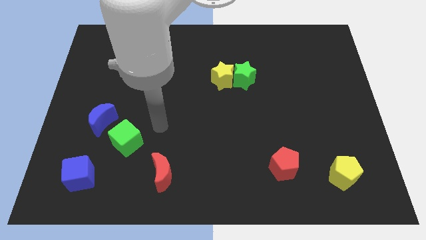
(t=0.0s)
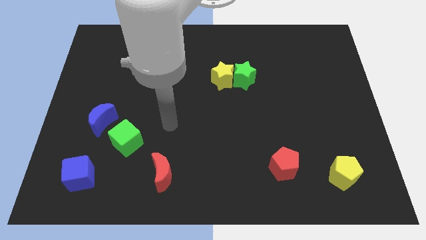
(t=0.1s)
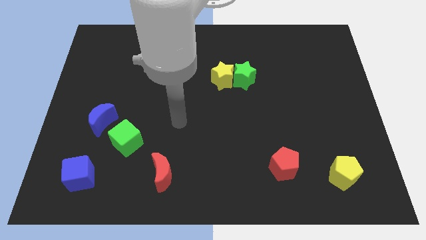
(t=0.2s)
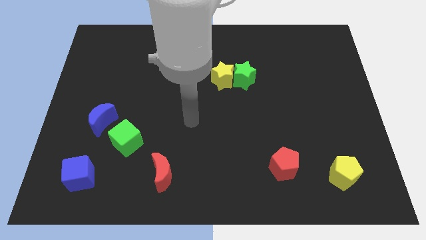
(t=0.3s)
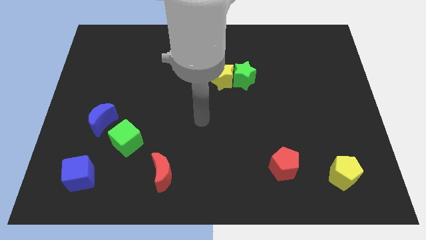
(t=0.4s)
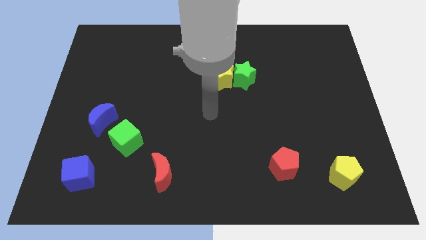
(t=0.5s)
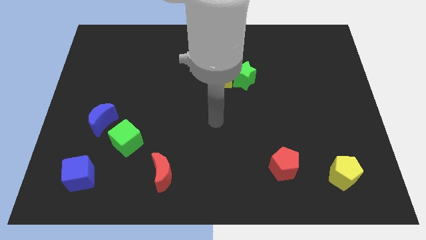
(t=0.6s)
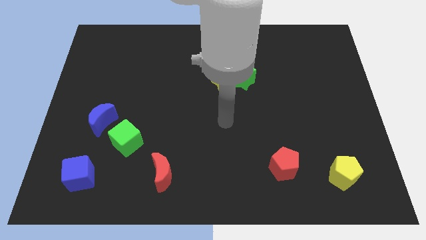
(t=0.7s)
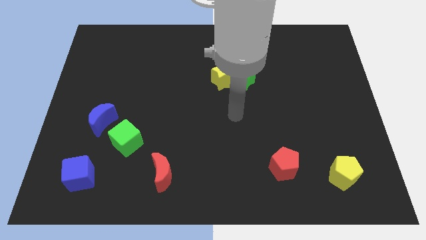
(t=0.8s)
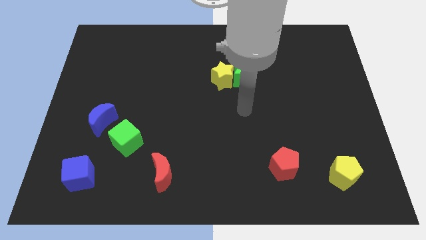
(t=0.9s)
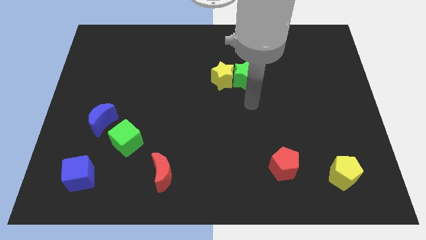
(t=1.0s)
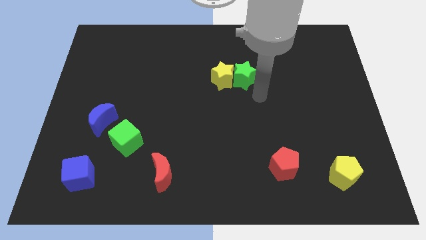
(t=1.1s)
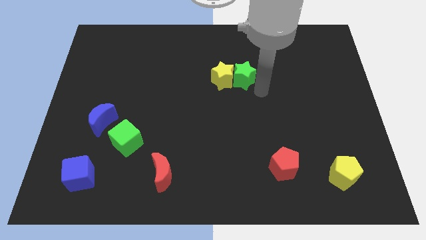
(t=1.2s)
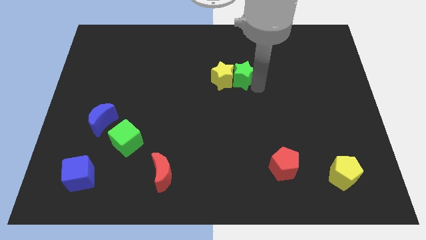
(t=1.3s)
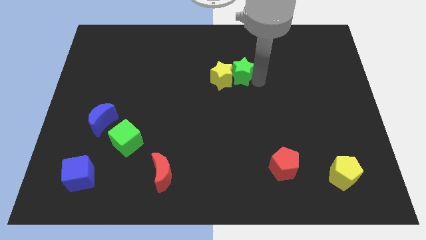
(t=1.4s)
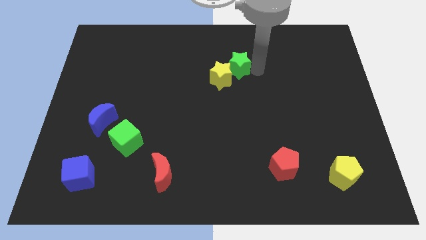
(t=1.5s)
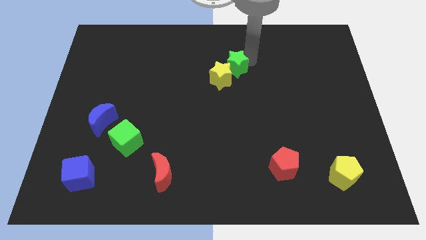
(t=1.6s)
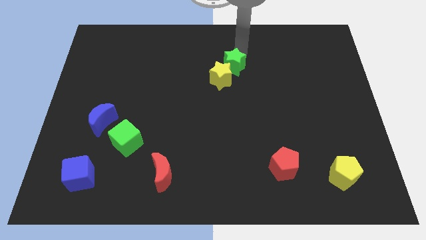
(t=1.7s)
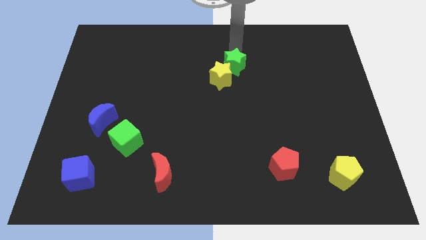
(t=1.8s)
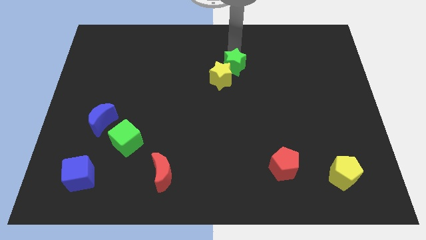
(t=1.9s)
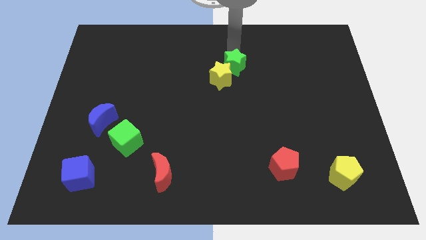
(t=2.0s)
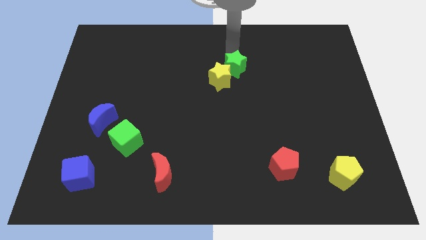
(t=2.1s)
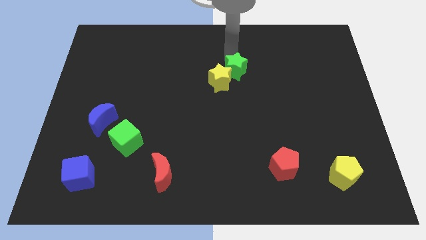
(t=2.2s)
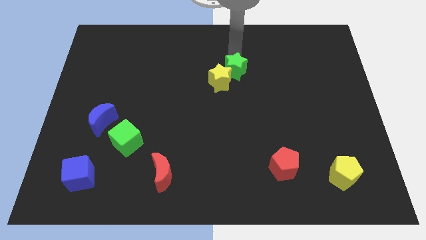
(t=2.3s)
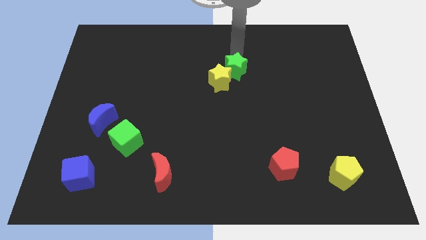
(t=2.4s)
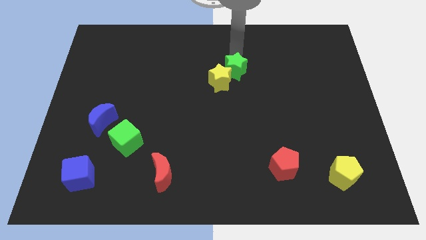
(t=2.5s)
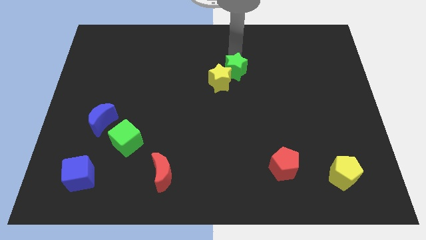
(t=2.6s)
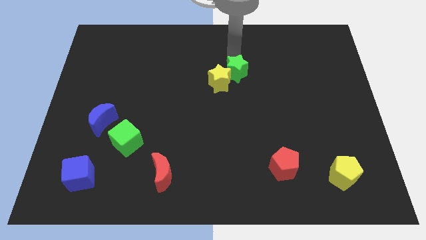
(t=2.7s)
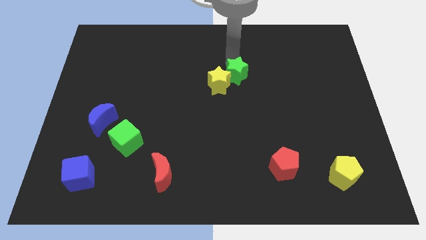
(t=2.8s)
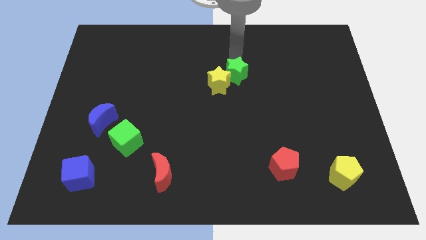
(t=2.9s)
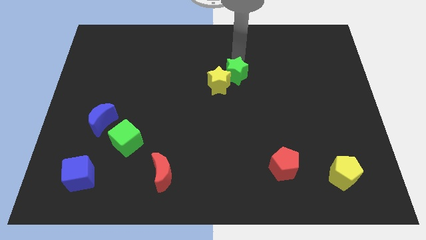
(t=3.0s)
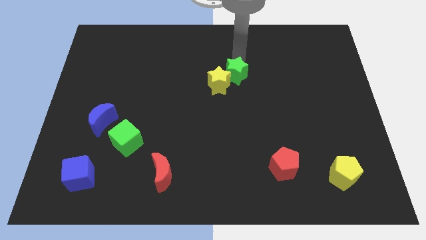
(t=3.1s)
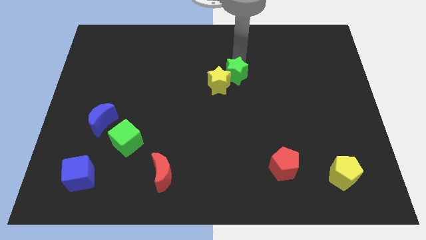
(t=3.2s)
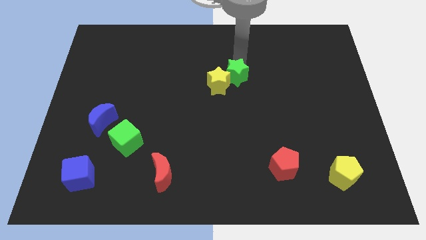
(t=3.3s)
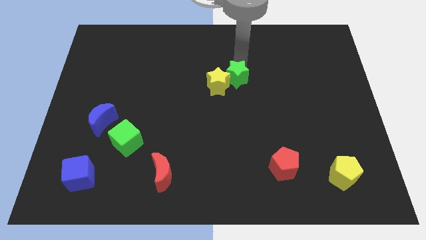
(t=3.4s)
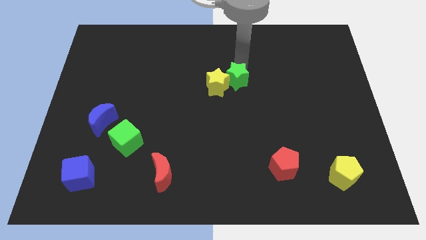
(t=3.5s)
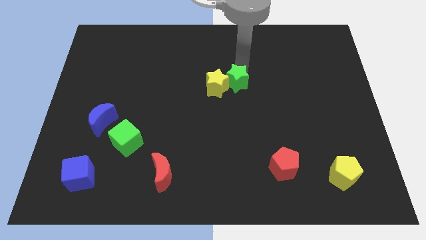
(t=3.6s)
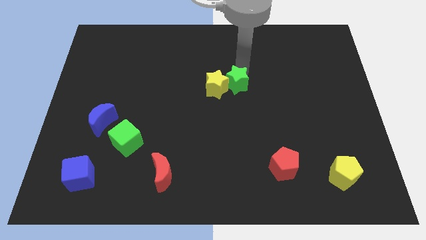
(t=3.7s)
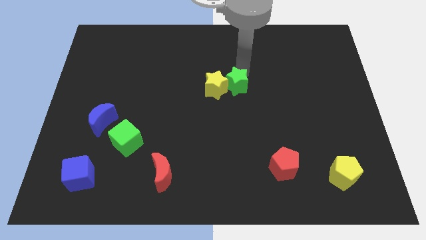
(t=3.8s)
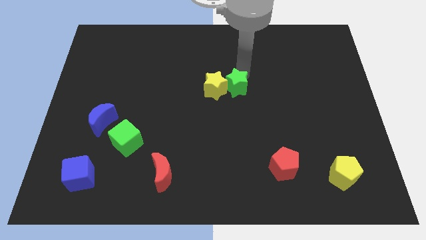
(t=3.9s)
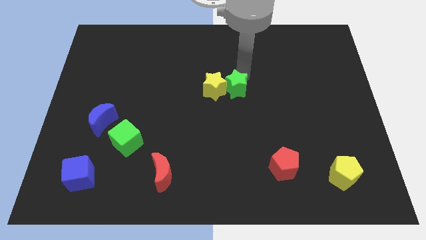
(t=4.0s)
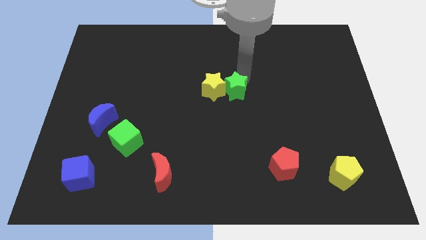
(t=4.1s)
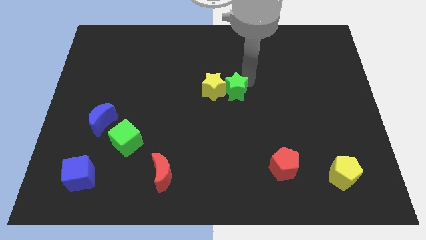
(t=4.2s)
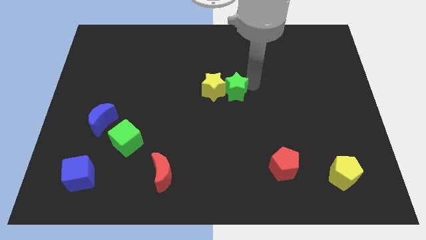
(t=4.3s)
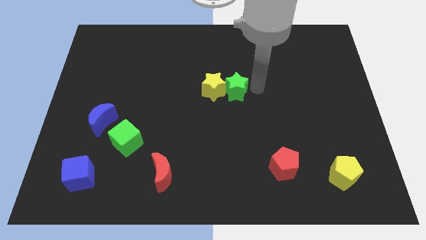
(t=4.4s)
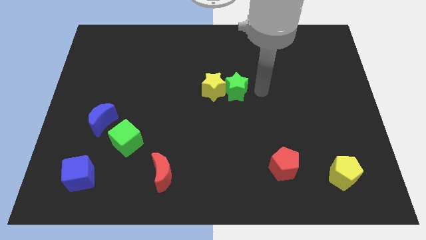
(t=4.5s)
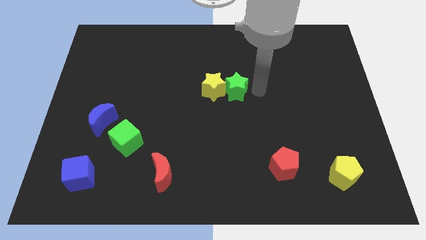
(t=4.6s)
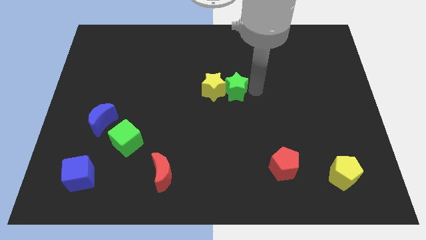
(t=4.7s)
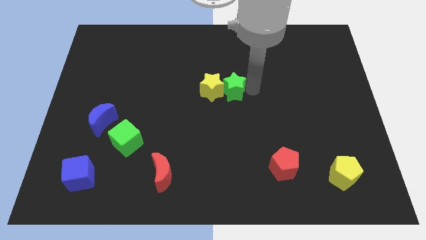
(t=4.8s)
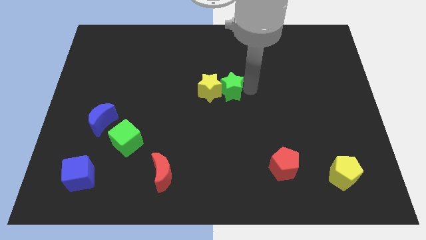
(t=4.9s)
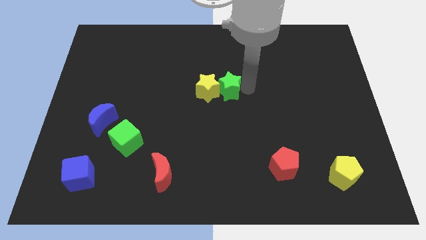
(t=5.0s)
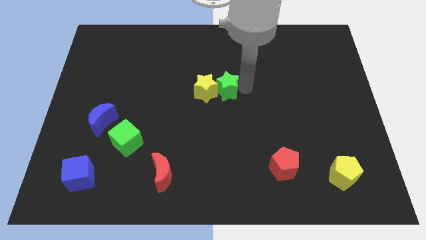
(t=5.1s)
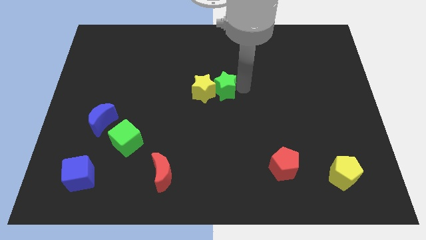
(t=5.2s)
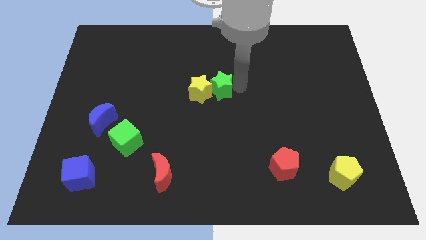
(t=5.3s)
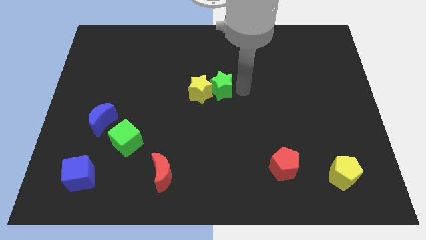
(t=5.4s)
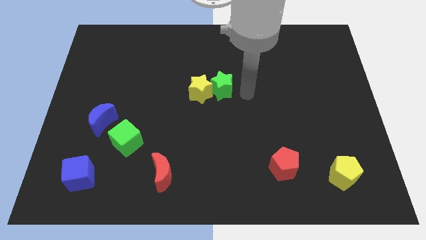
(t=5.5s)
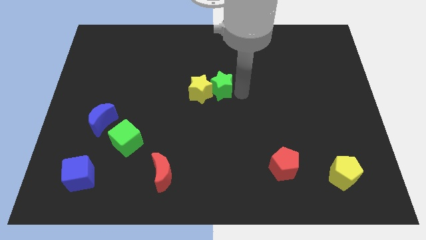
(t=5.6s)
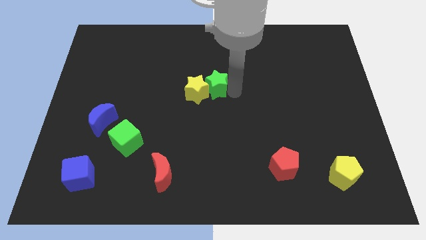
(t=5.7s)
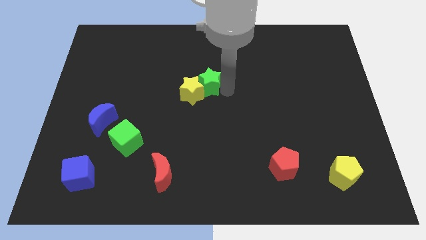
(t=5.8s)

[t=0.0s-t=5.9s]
push the green star to the left a bit

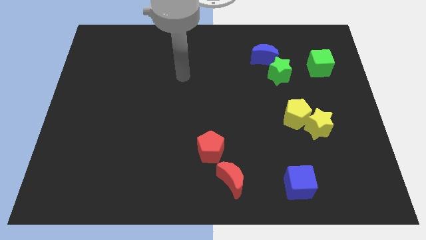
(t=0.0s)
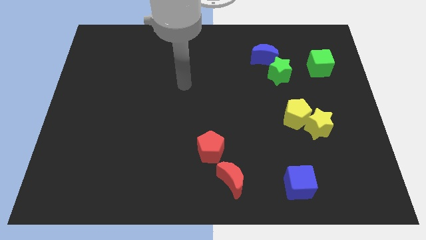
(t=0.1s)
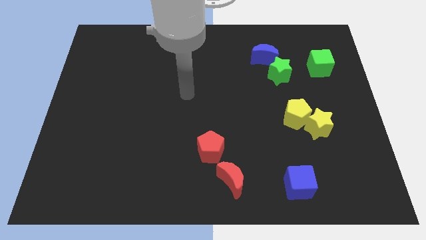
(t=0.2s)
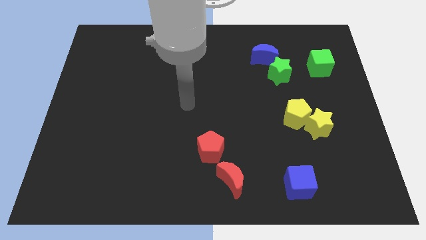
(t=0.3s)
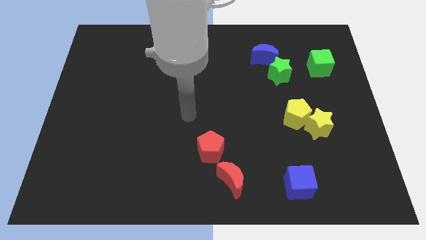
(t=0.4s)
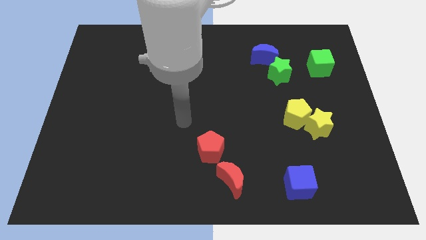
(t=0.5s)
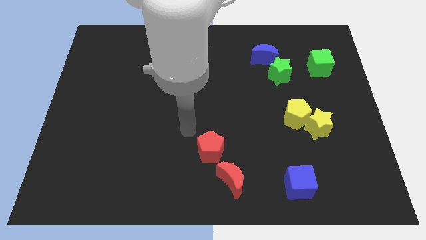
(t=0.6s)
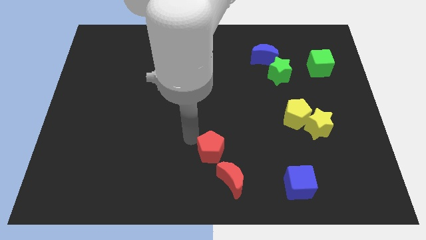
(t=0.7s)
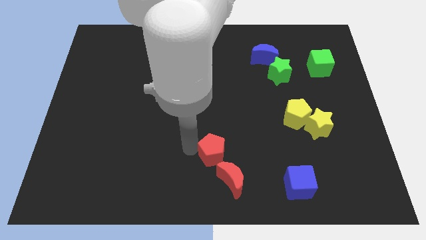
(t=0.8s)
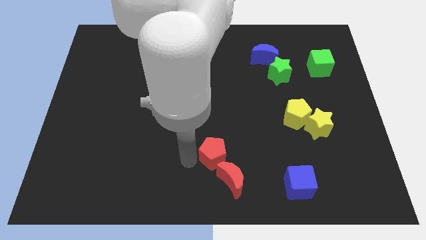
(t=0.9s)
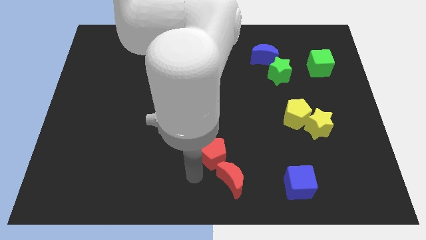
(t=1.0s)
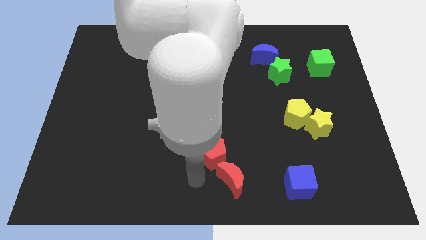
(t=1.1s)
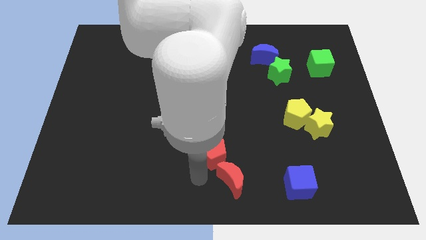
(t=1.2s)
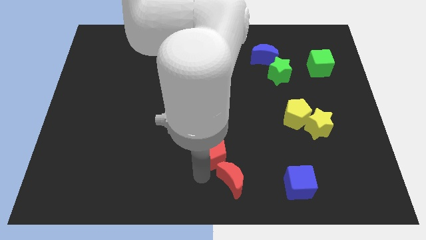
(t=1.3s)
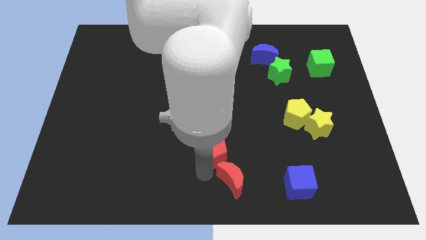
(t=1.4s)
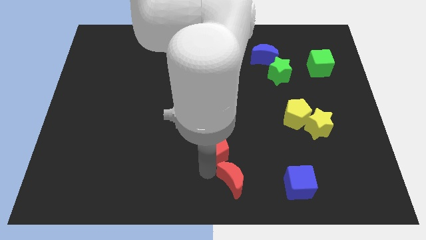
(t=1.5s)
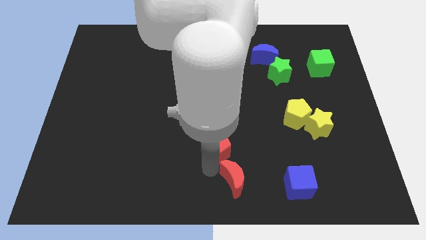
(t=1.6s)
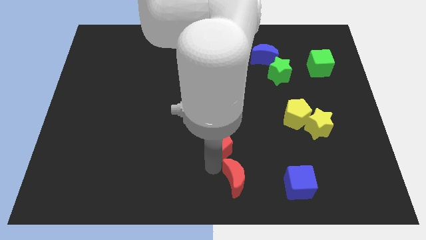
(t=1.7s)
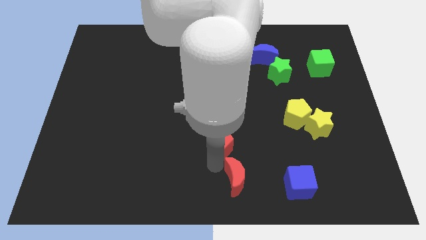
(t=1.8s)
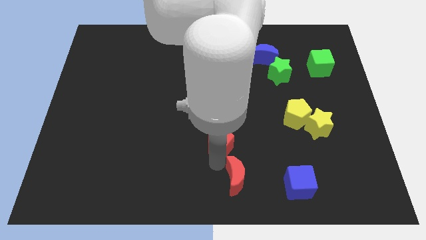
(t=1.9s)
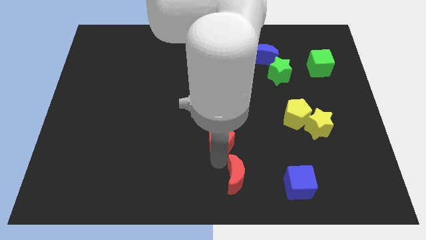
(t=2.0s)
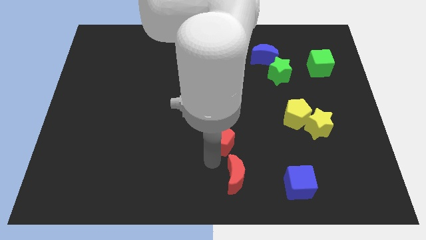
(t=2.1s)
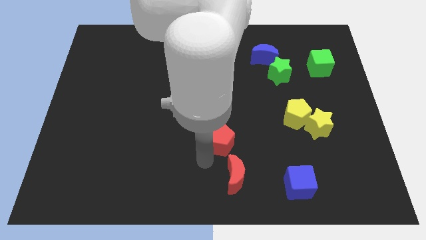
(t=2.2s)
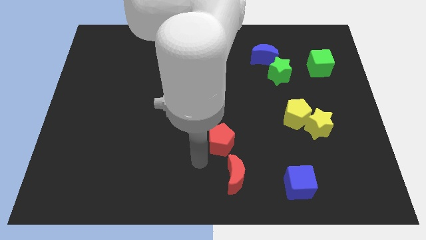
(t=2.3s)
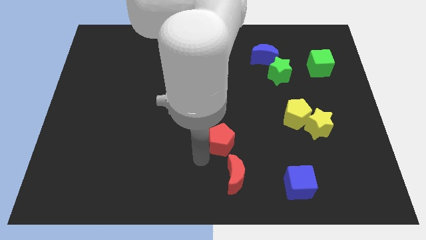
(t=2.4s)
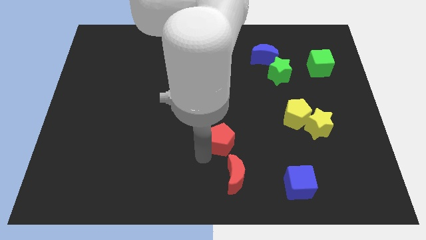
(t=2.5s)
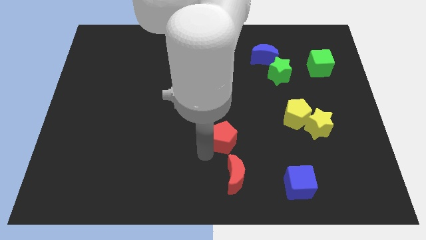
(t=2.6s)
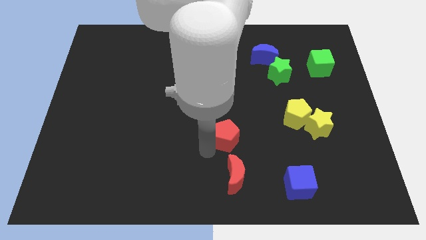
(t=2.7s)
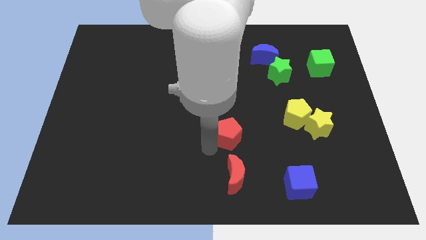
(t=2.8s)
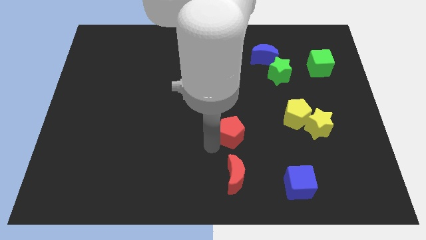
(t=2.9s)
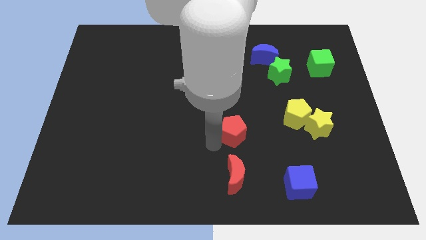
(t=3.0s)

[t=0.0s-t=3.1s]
move the red pentagon up and then right somewhat
